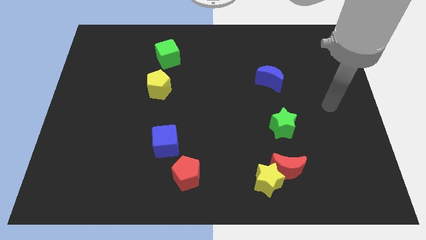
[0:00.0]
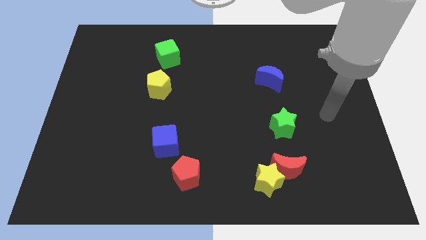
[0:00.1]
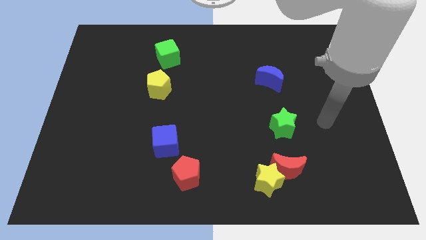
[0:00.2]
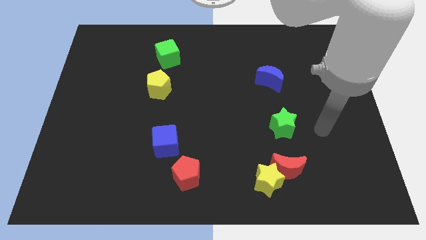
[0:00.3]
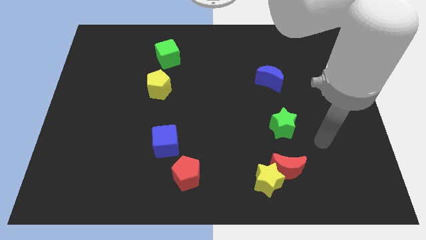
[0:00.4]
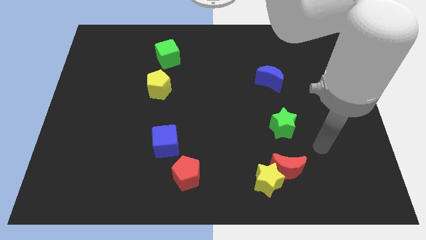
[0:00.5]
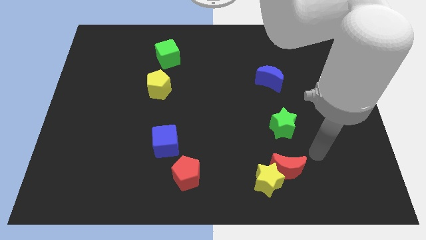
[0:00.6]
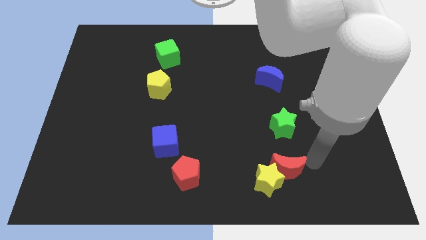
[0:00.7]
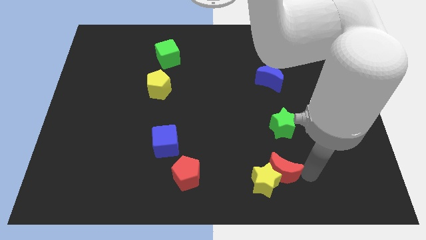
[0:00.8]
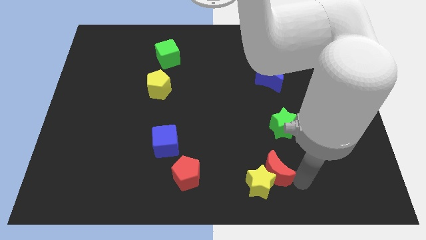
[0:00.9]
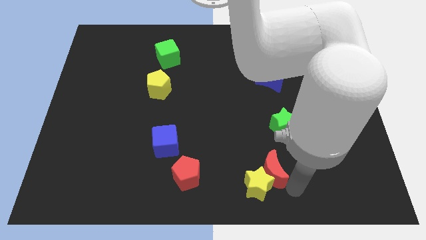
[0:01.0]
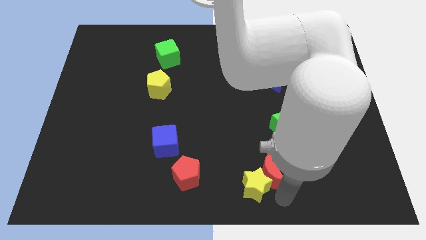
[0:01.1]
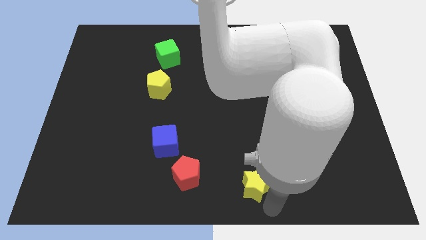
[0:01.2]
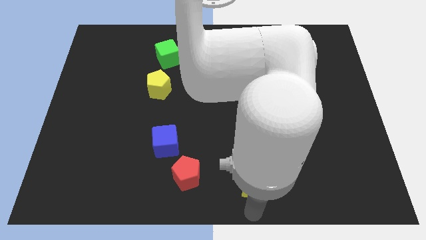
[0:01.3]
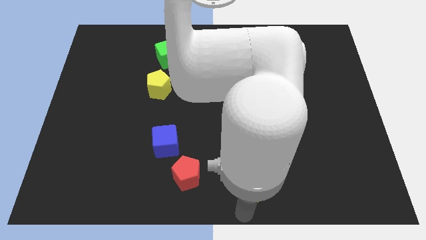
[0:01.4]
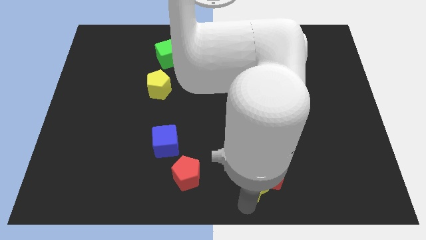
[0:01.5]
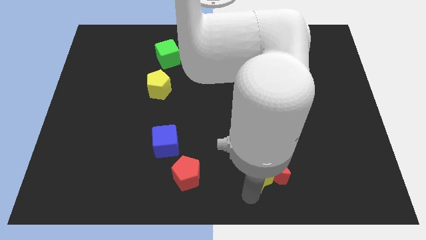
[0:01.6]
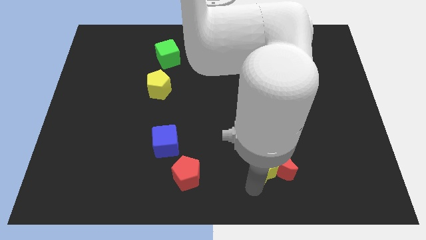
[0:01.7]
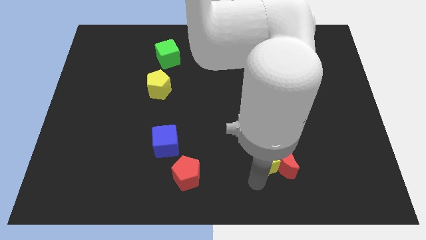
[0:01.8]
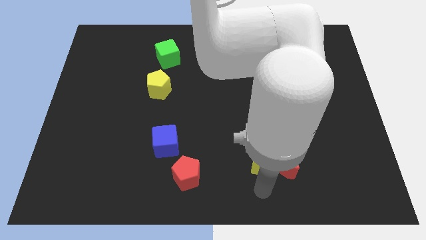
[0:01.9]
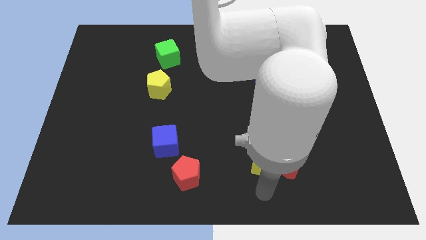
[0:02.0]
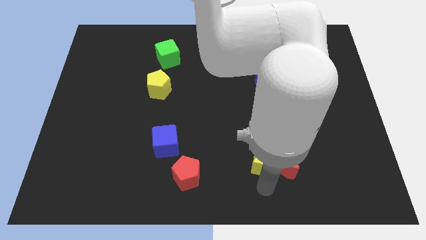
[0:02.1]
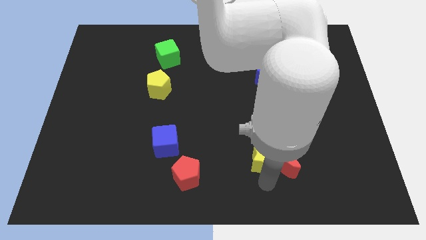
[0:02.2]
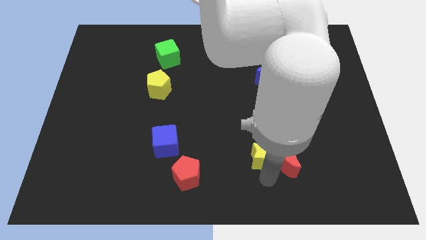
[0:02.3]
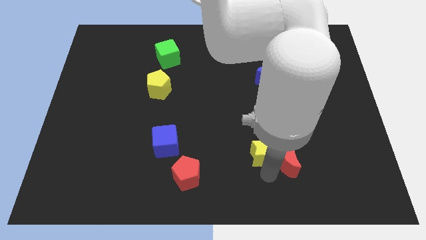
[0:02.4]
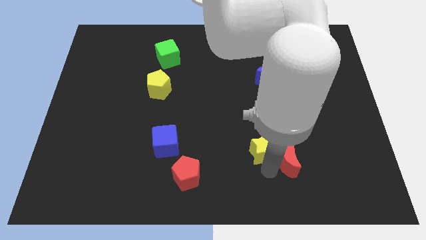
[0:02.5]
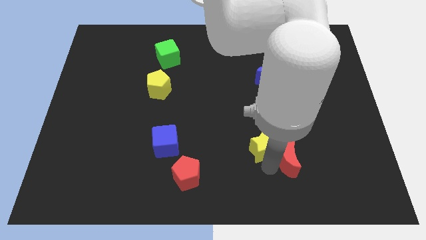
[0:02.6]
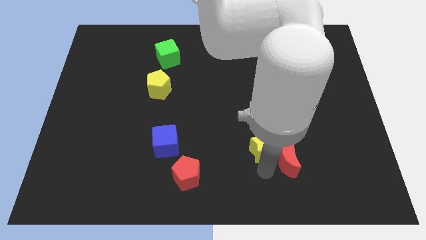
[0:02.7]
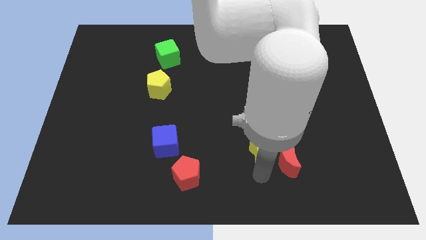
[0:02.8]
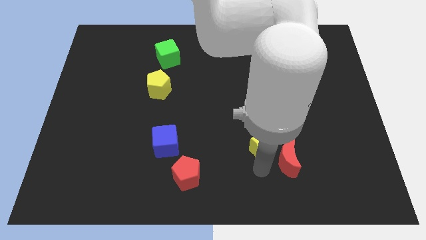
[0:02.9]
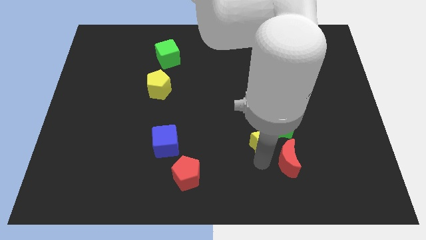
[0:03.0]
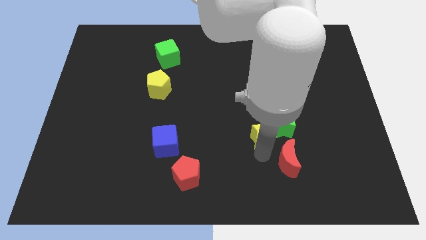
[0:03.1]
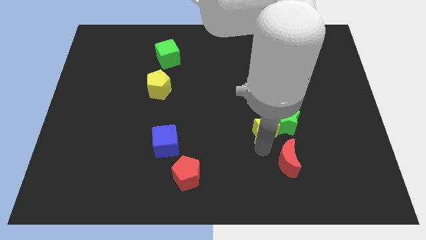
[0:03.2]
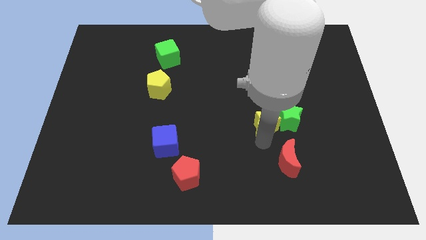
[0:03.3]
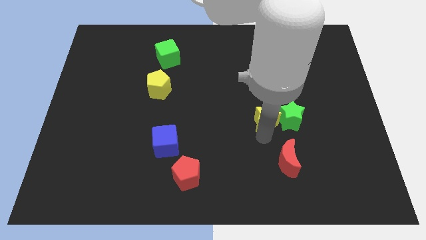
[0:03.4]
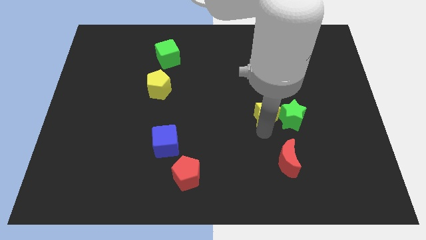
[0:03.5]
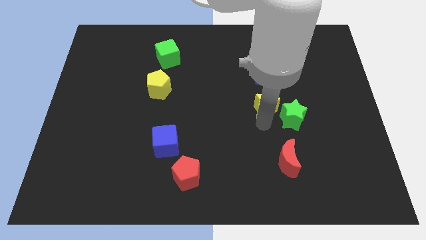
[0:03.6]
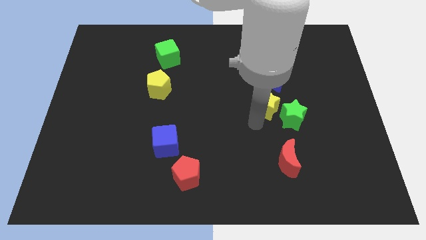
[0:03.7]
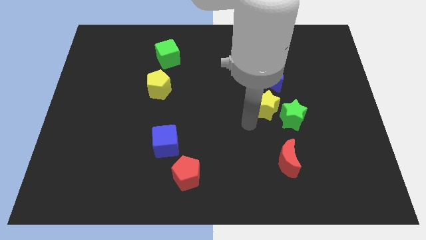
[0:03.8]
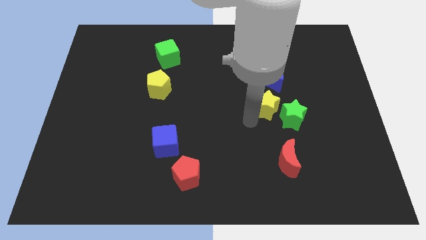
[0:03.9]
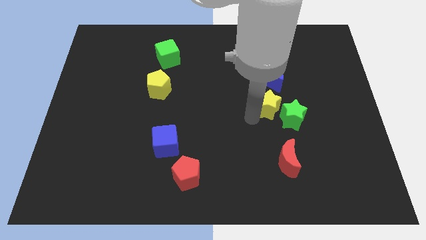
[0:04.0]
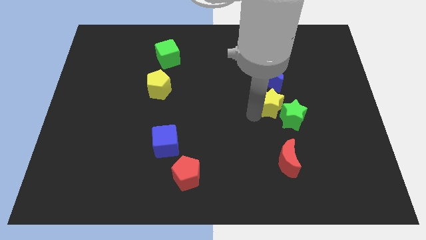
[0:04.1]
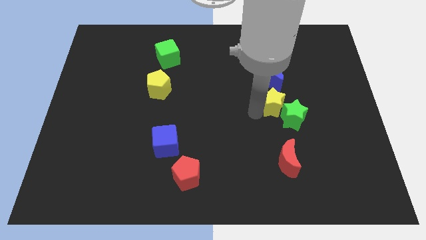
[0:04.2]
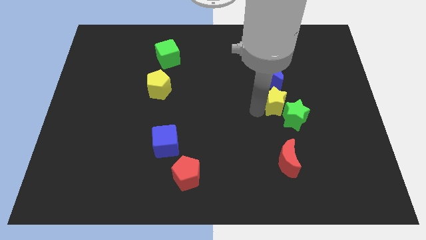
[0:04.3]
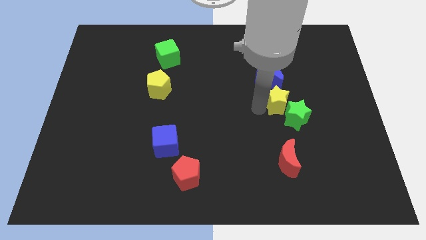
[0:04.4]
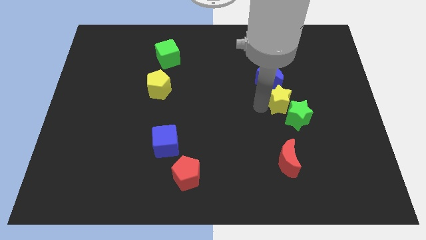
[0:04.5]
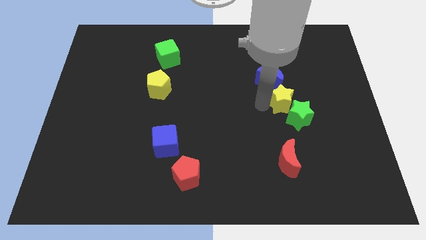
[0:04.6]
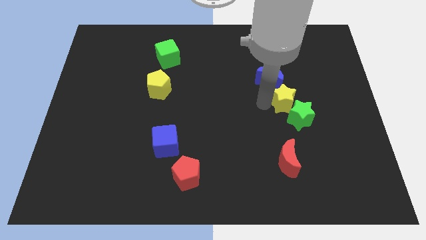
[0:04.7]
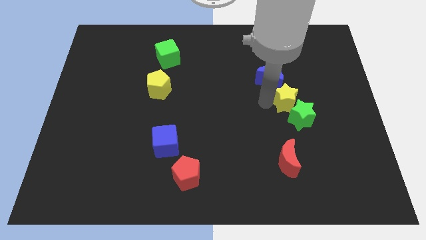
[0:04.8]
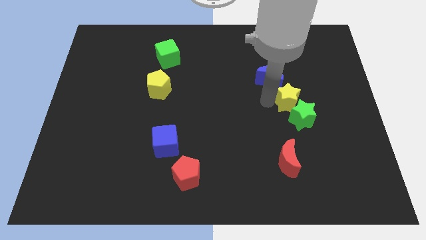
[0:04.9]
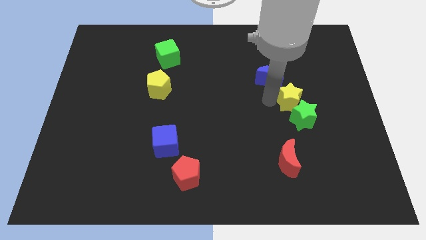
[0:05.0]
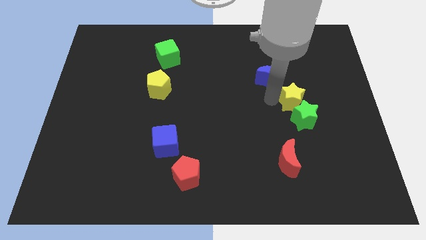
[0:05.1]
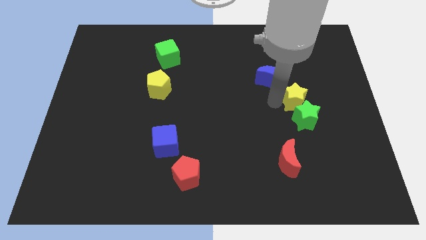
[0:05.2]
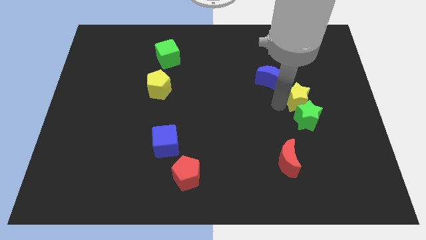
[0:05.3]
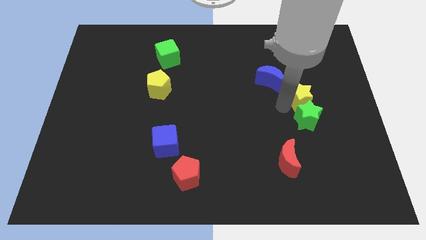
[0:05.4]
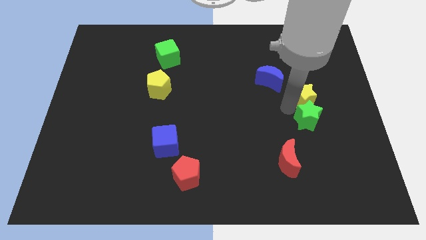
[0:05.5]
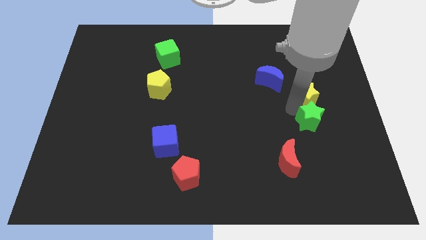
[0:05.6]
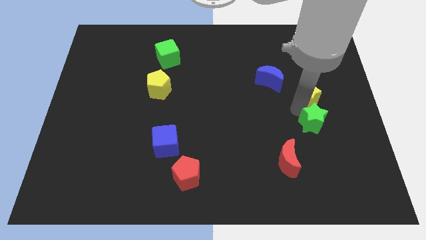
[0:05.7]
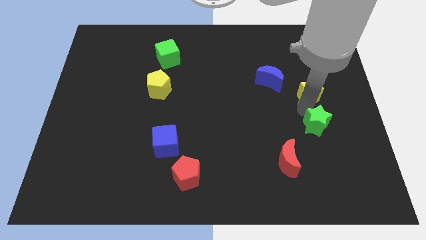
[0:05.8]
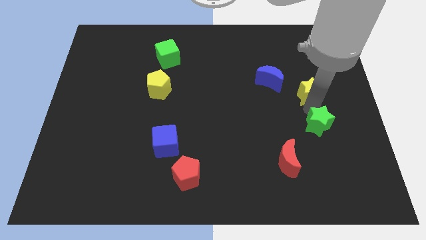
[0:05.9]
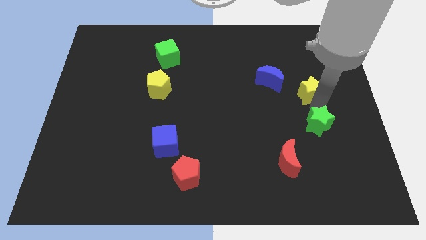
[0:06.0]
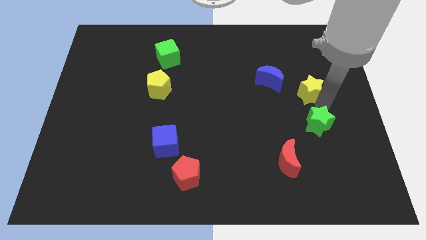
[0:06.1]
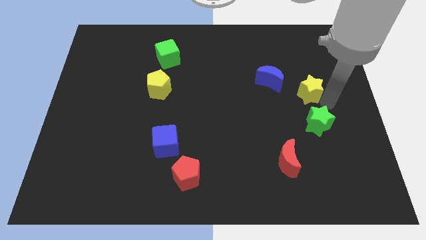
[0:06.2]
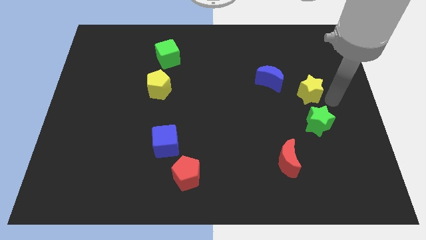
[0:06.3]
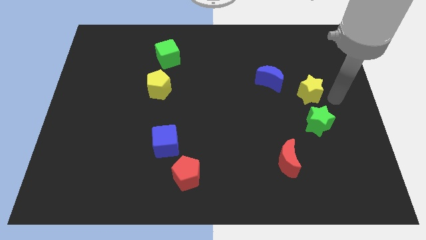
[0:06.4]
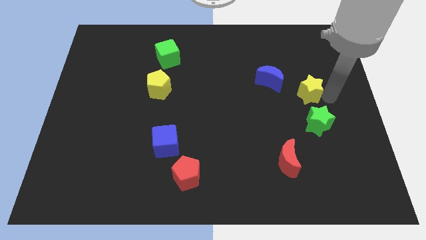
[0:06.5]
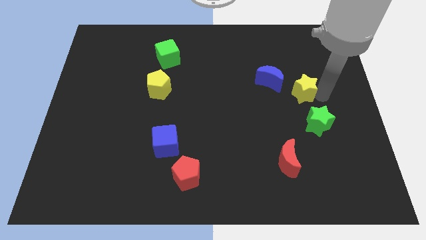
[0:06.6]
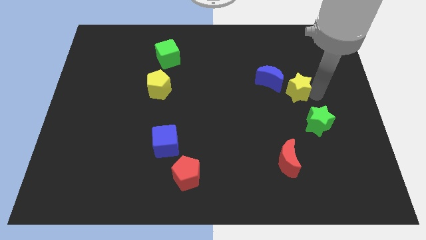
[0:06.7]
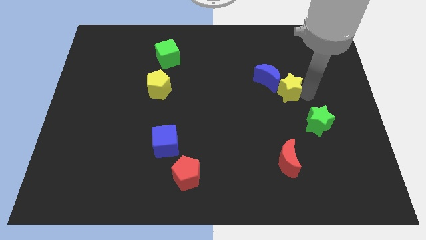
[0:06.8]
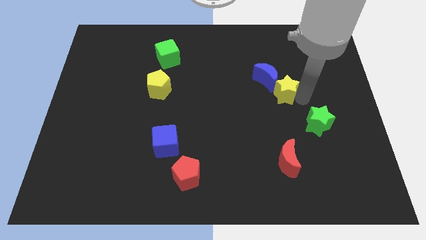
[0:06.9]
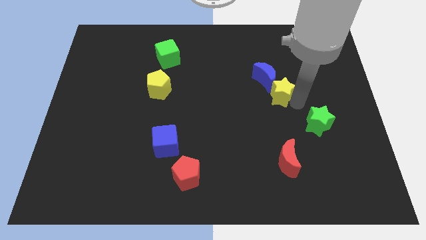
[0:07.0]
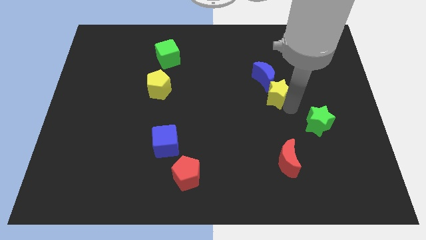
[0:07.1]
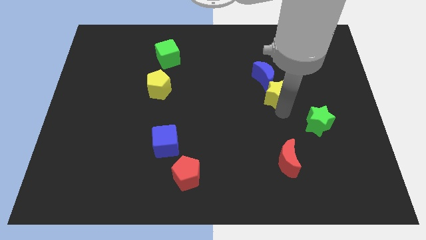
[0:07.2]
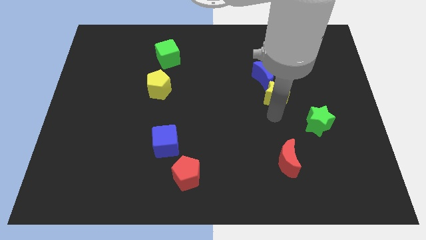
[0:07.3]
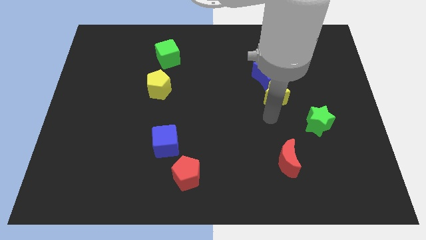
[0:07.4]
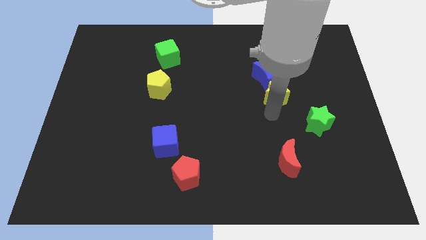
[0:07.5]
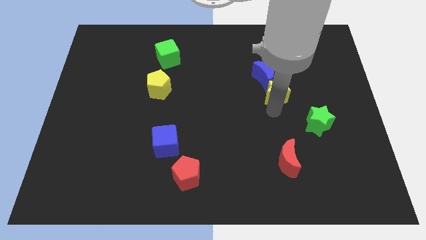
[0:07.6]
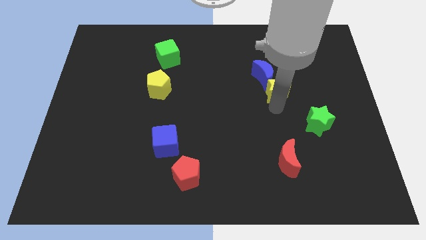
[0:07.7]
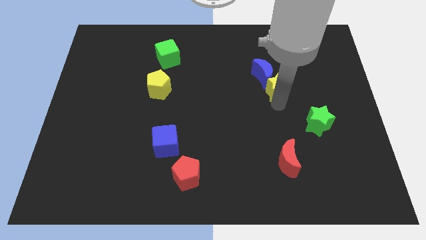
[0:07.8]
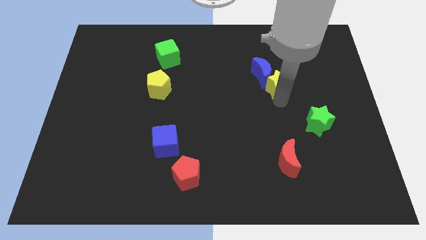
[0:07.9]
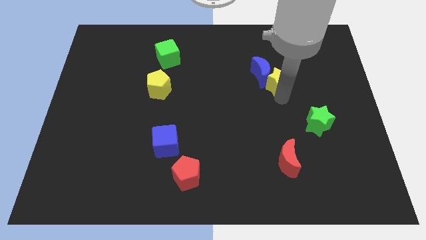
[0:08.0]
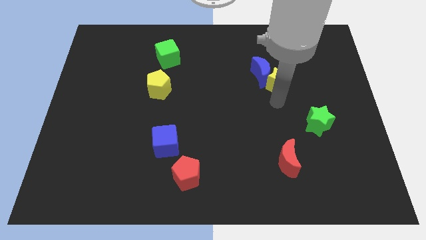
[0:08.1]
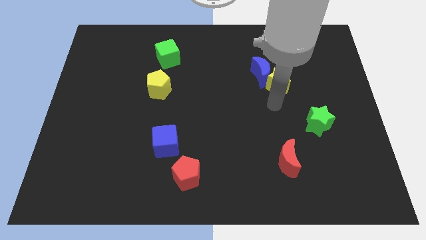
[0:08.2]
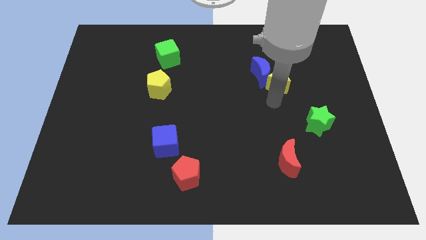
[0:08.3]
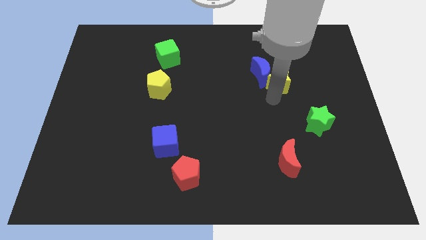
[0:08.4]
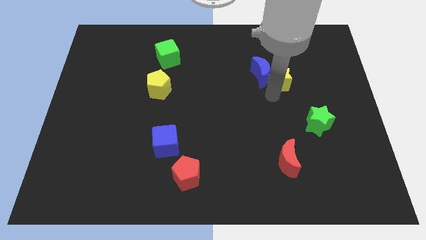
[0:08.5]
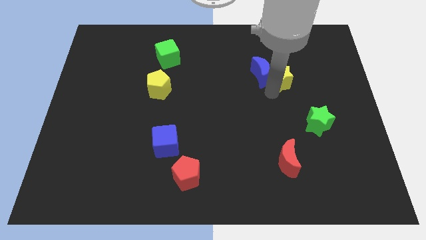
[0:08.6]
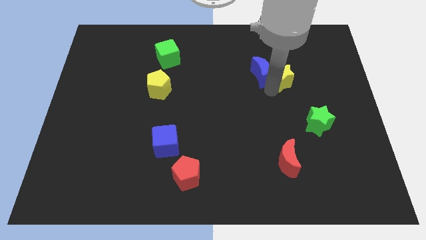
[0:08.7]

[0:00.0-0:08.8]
put the yellow star diagonally up and to the right of the blue moon
